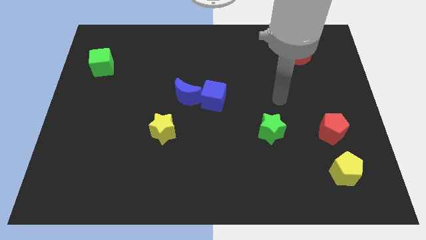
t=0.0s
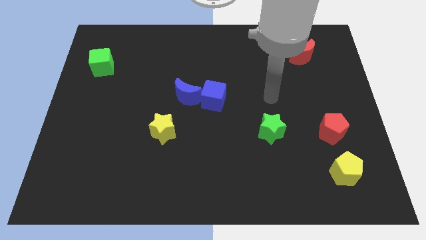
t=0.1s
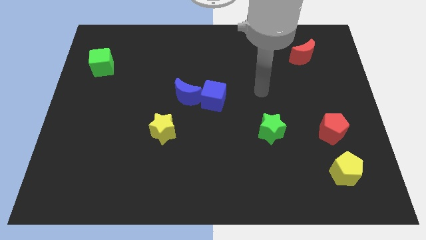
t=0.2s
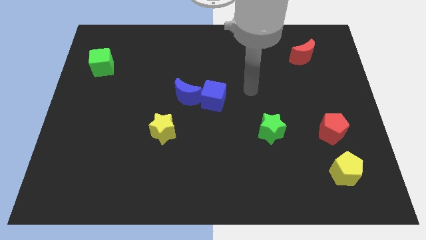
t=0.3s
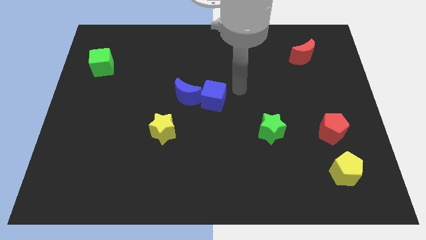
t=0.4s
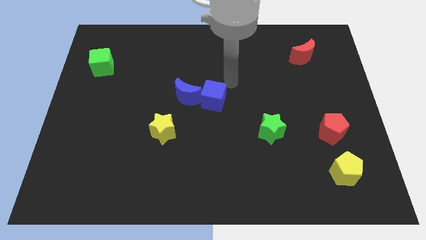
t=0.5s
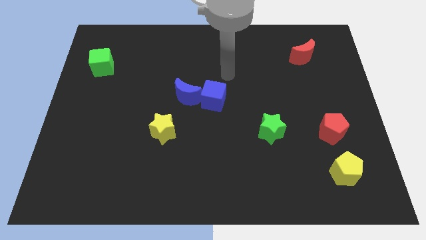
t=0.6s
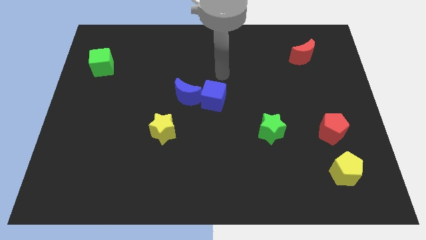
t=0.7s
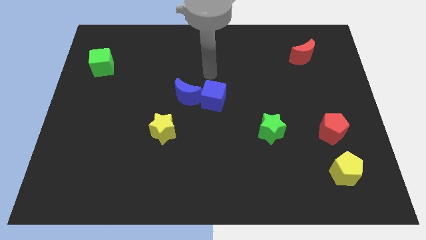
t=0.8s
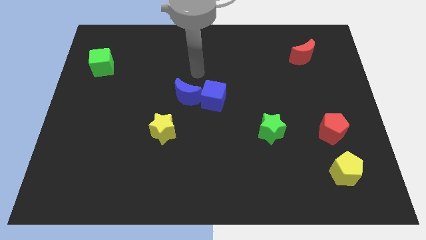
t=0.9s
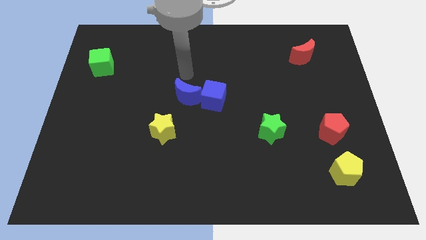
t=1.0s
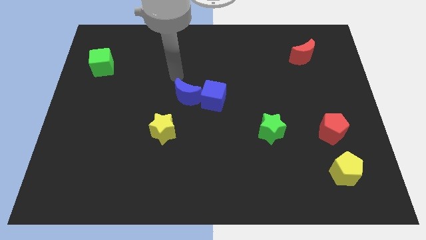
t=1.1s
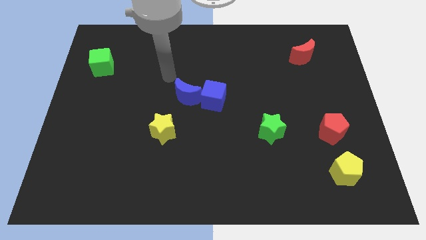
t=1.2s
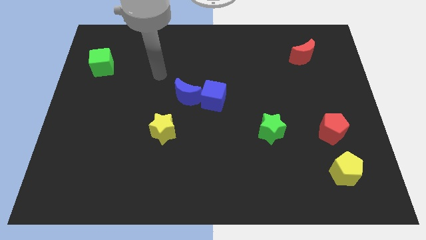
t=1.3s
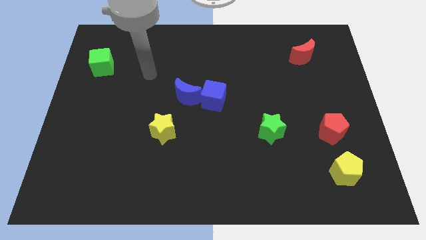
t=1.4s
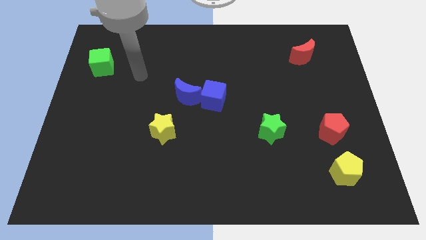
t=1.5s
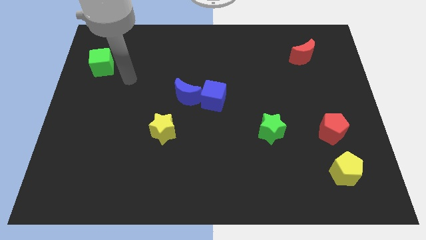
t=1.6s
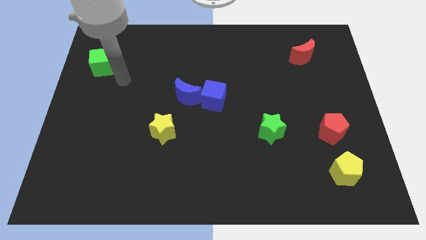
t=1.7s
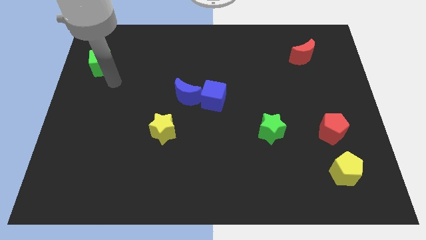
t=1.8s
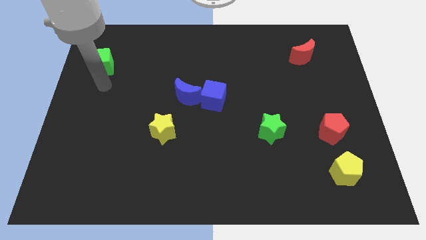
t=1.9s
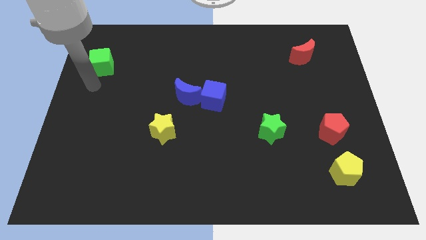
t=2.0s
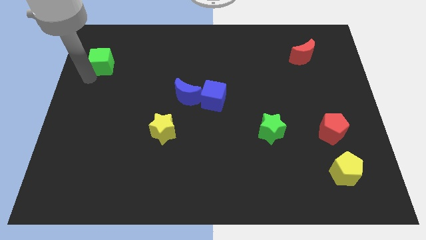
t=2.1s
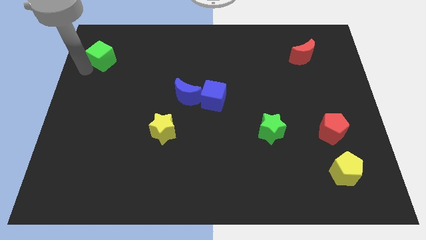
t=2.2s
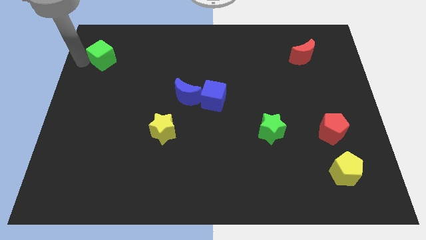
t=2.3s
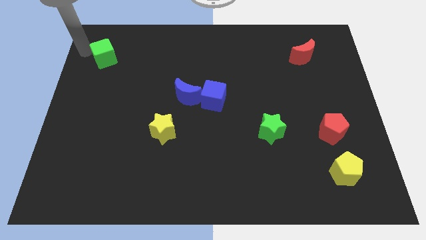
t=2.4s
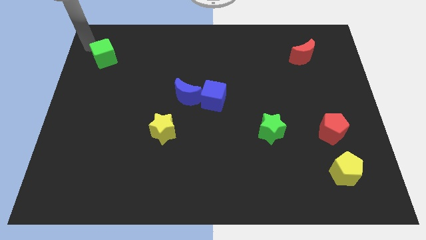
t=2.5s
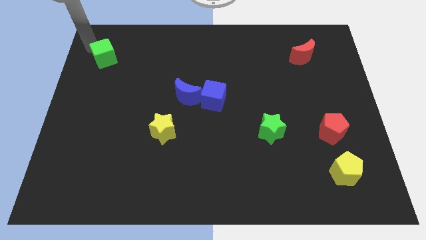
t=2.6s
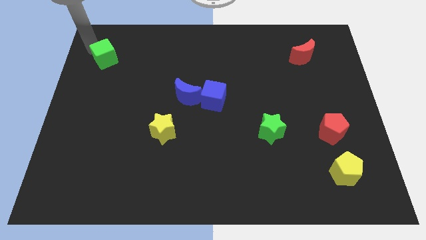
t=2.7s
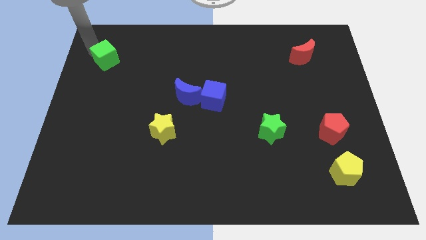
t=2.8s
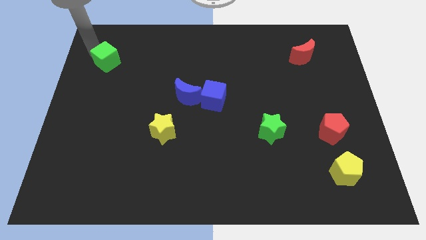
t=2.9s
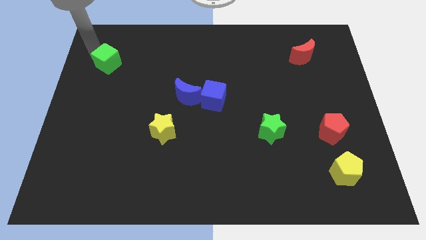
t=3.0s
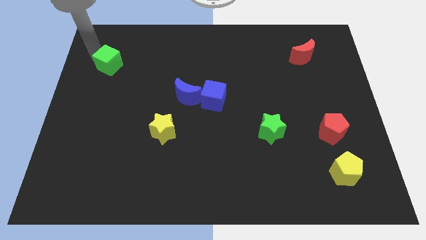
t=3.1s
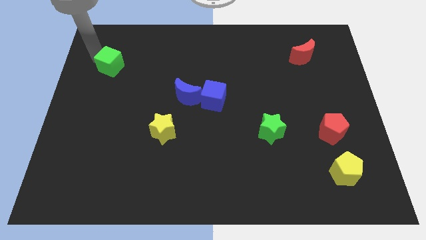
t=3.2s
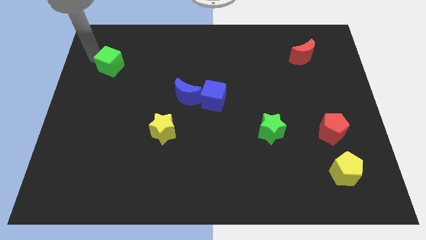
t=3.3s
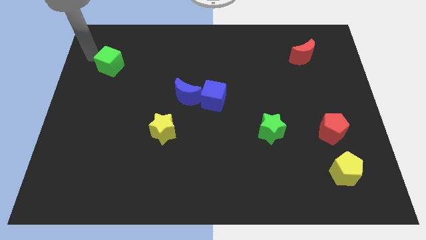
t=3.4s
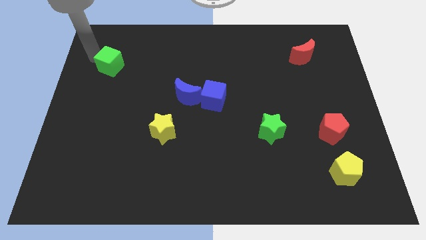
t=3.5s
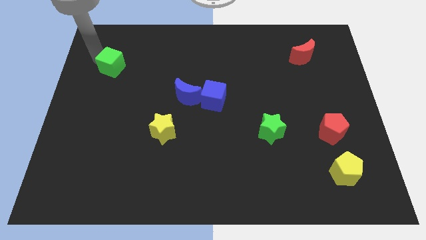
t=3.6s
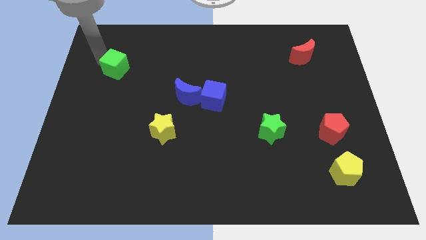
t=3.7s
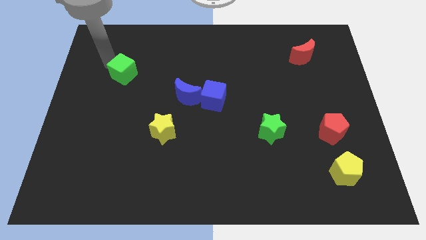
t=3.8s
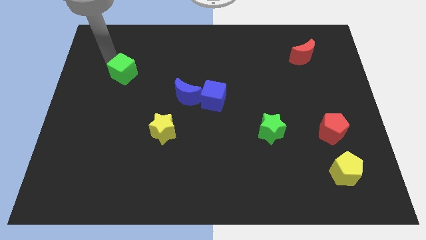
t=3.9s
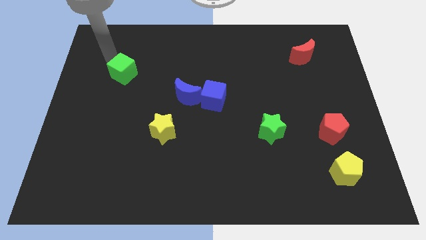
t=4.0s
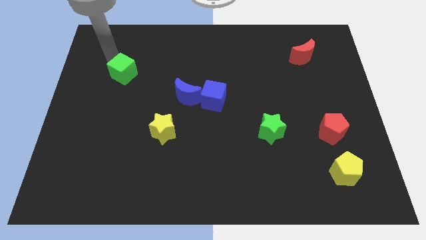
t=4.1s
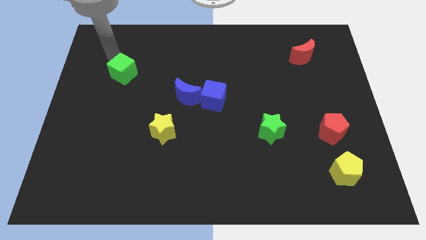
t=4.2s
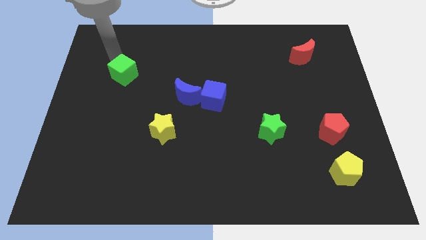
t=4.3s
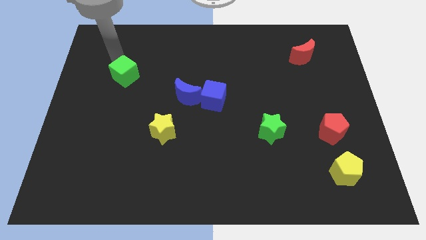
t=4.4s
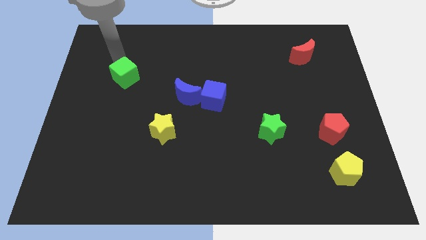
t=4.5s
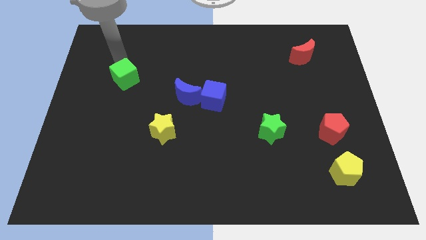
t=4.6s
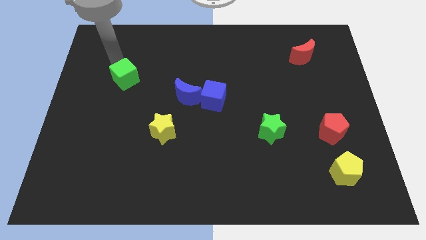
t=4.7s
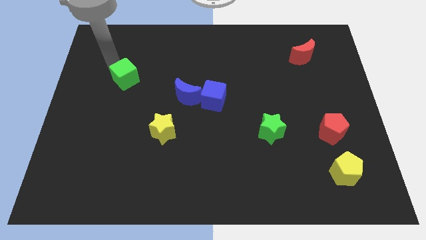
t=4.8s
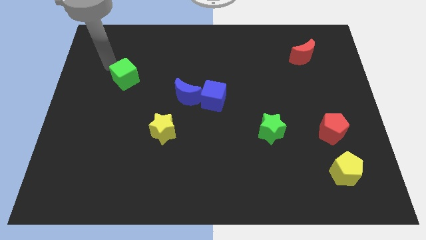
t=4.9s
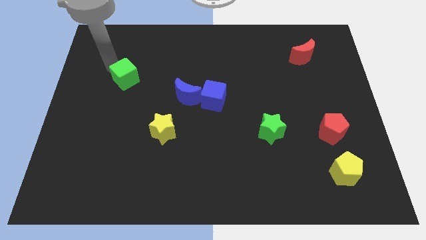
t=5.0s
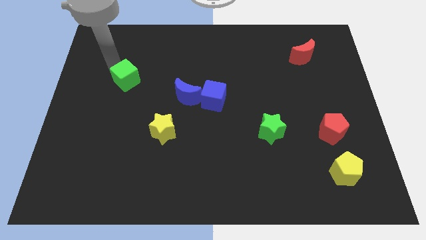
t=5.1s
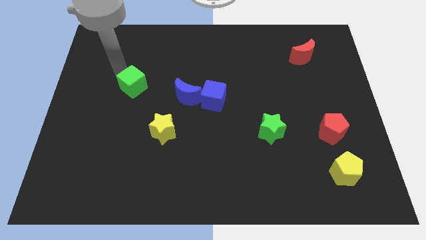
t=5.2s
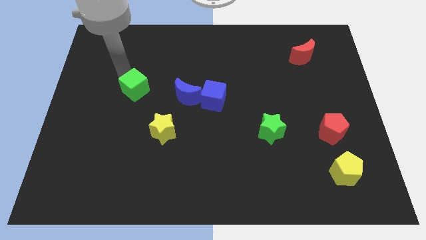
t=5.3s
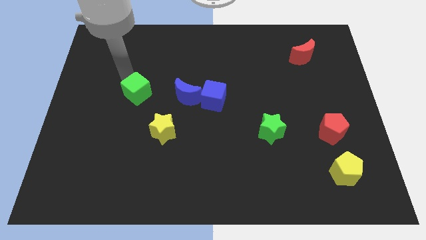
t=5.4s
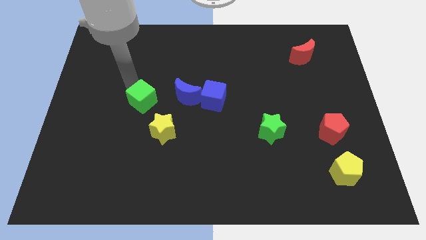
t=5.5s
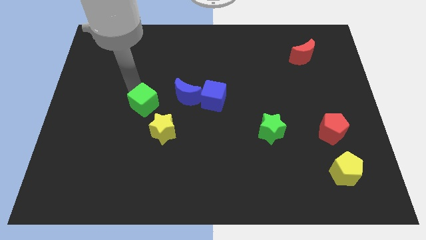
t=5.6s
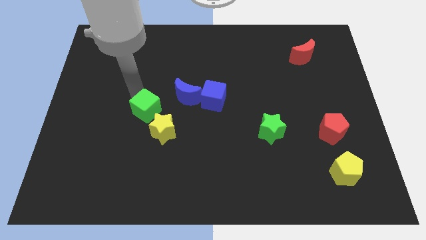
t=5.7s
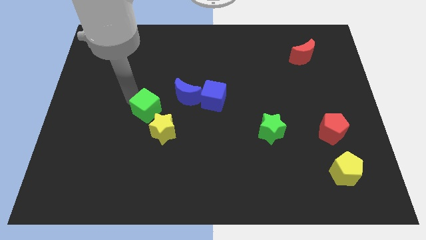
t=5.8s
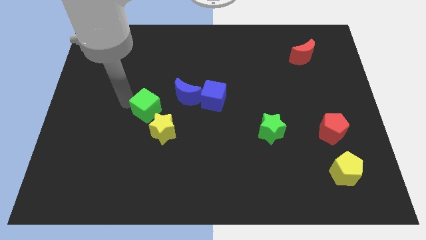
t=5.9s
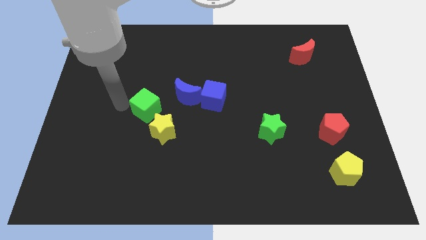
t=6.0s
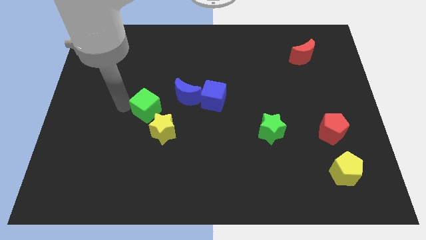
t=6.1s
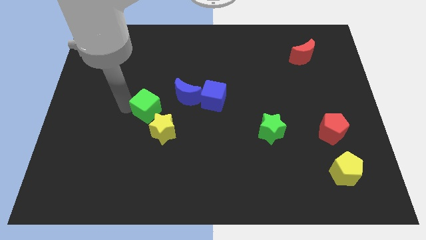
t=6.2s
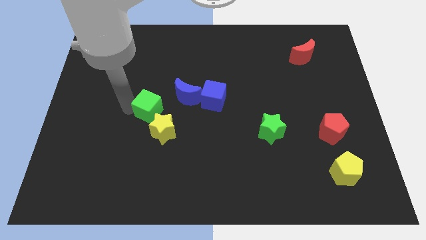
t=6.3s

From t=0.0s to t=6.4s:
push the green cube downwards and then right

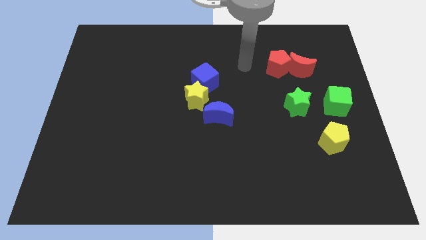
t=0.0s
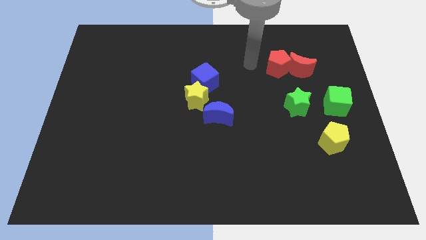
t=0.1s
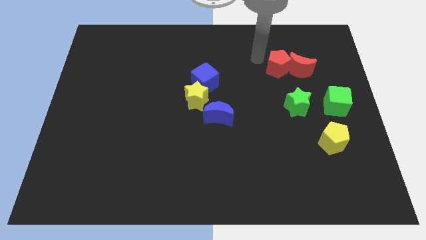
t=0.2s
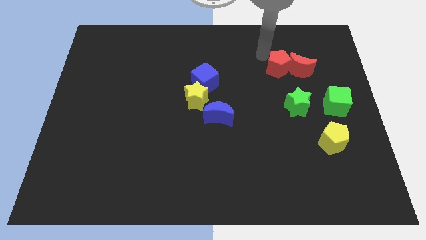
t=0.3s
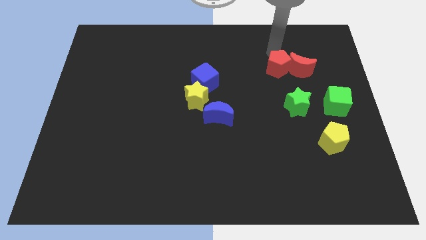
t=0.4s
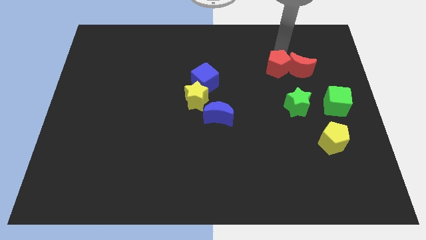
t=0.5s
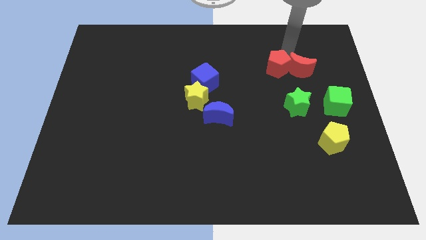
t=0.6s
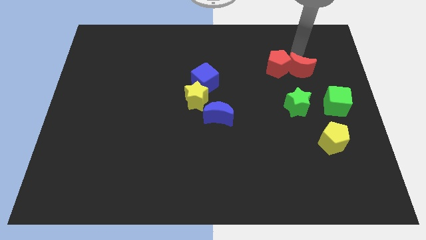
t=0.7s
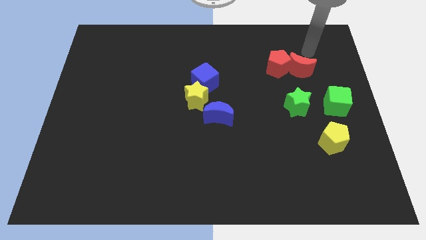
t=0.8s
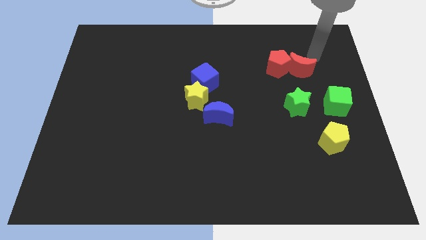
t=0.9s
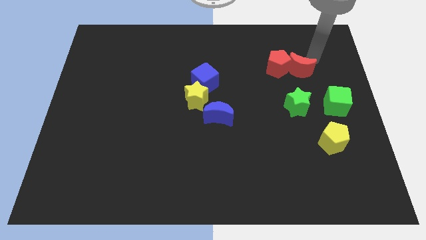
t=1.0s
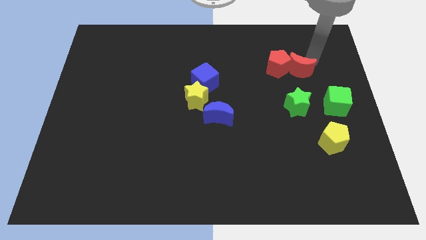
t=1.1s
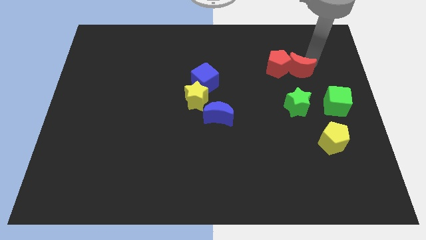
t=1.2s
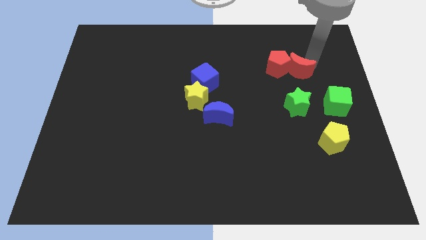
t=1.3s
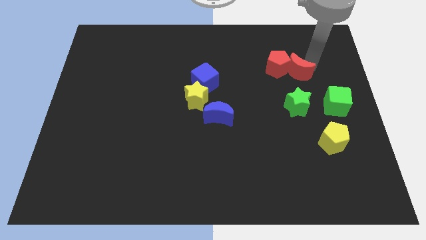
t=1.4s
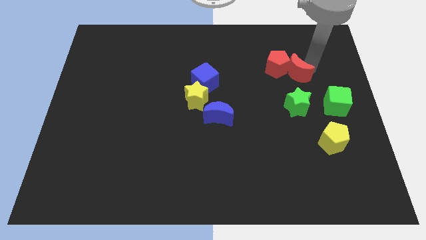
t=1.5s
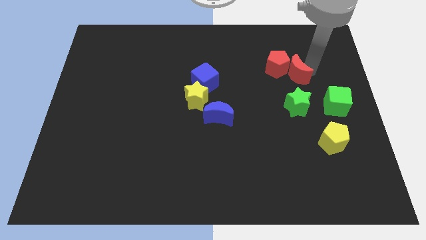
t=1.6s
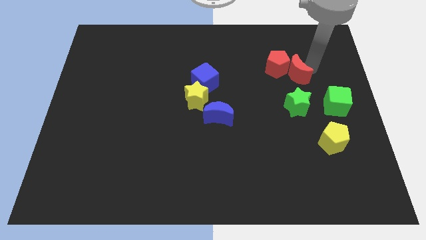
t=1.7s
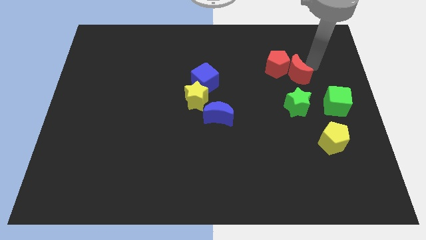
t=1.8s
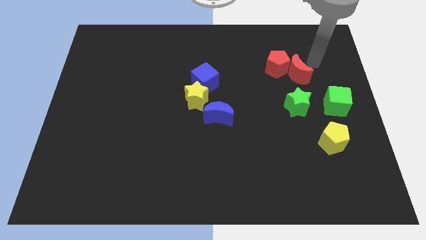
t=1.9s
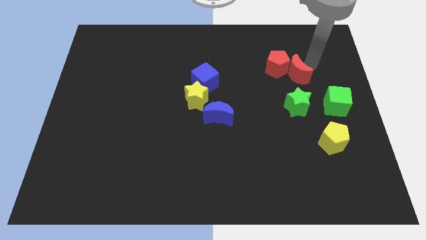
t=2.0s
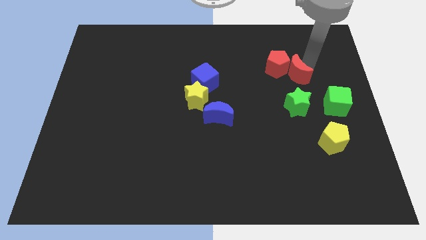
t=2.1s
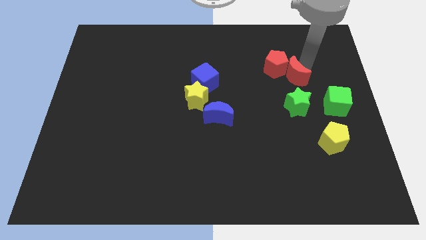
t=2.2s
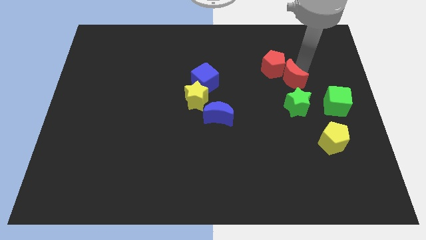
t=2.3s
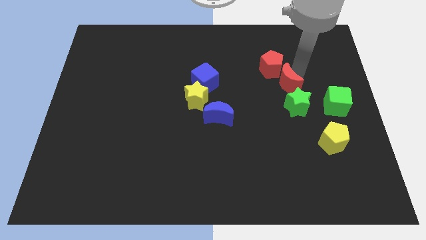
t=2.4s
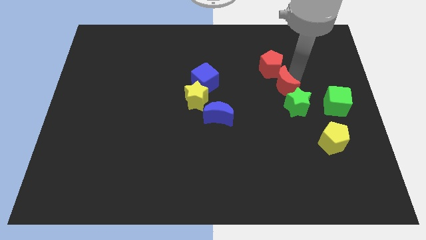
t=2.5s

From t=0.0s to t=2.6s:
slightly move the red moon down and then to the left
